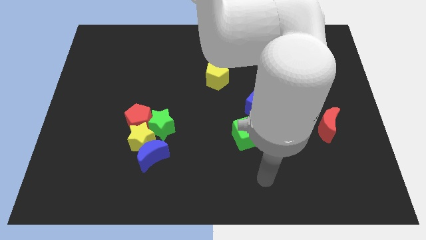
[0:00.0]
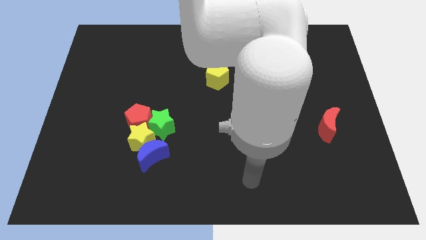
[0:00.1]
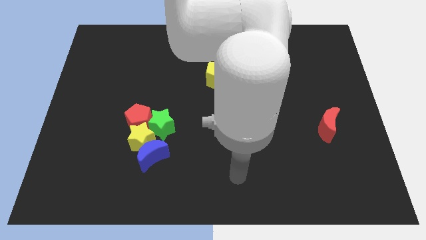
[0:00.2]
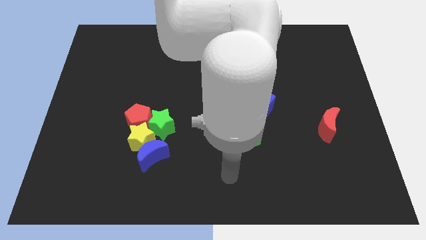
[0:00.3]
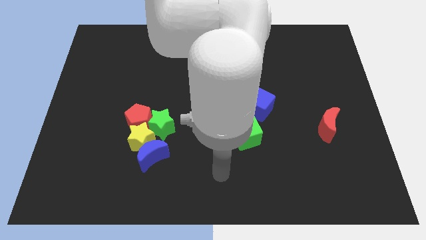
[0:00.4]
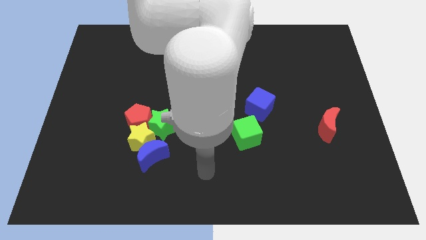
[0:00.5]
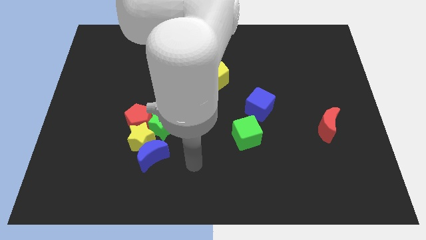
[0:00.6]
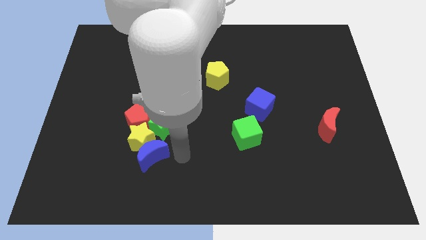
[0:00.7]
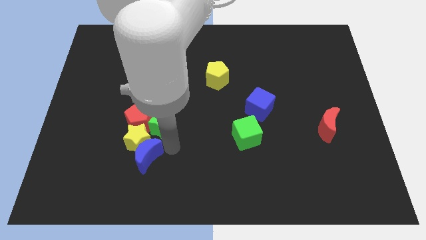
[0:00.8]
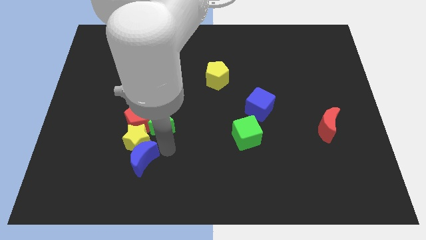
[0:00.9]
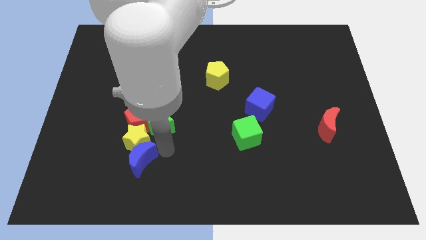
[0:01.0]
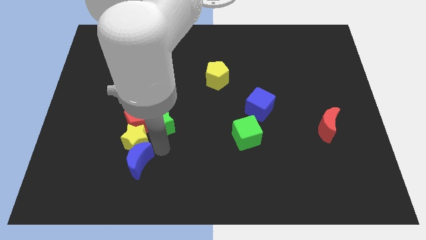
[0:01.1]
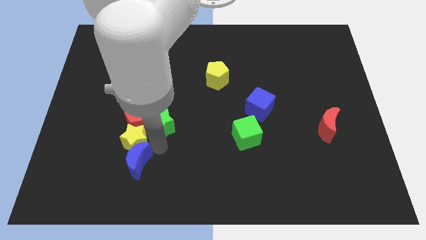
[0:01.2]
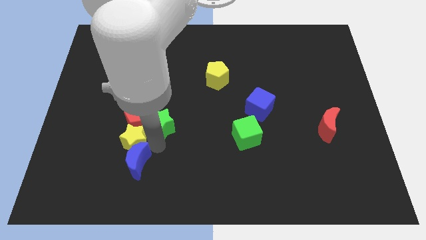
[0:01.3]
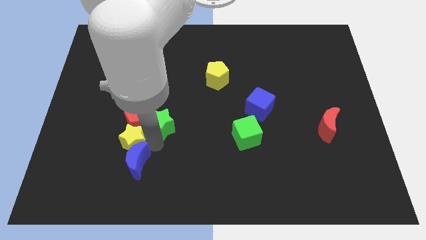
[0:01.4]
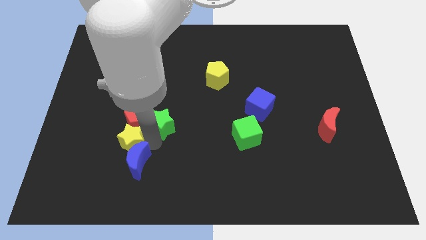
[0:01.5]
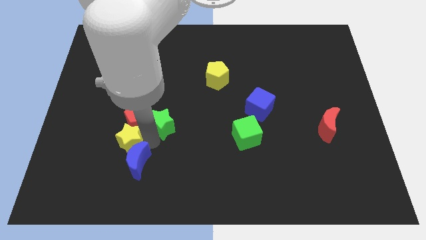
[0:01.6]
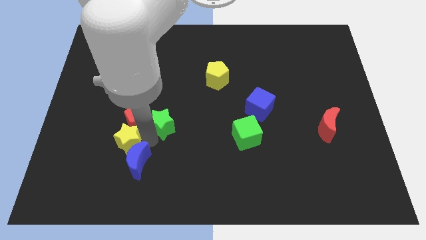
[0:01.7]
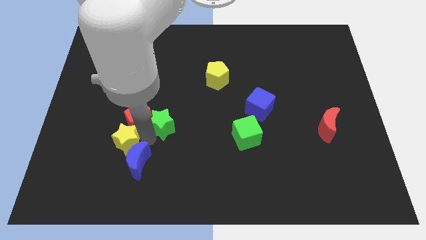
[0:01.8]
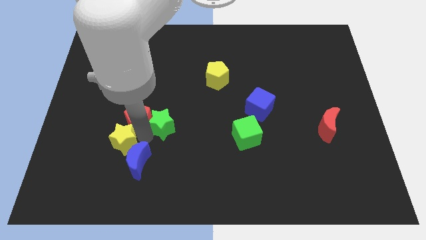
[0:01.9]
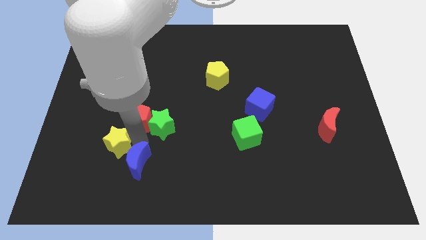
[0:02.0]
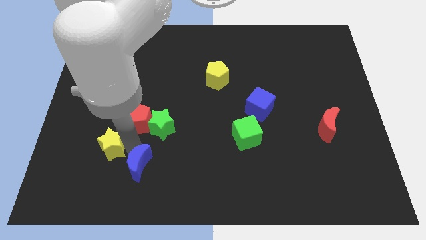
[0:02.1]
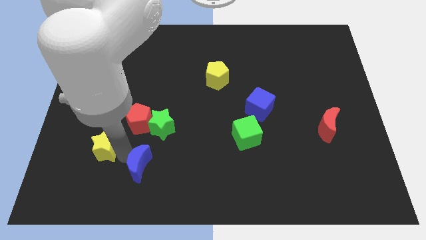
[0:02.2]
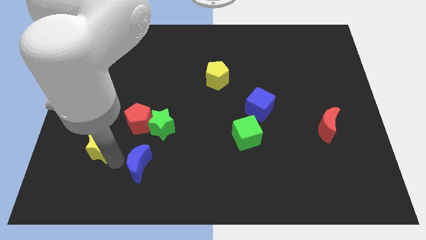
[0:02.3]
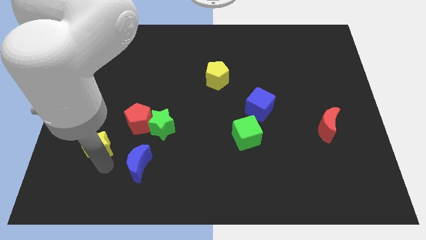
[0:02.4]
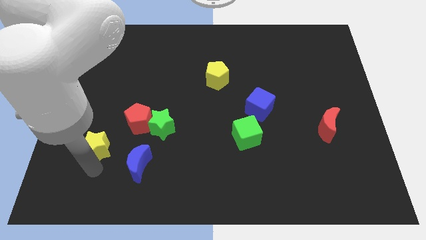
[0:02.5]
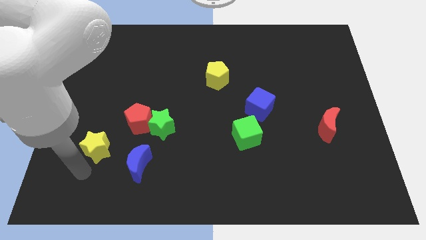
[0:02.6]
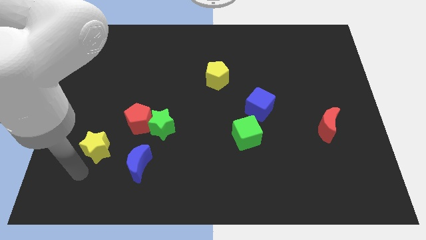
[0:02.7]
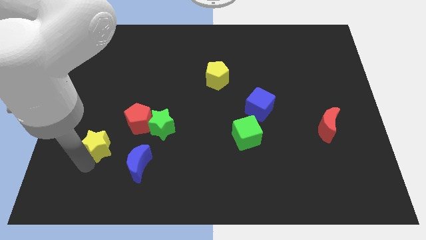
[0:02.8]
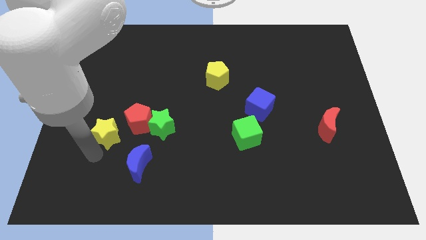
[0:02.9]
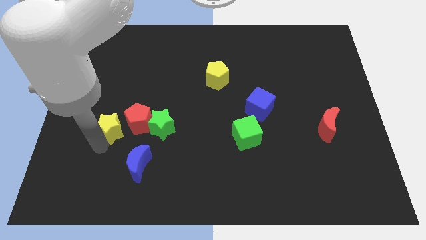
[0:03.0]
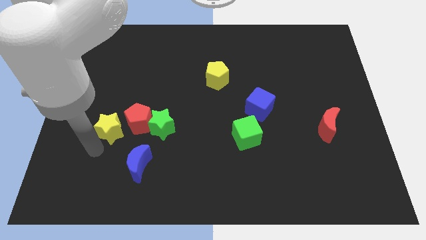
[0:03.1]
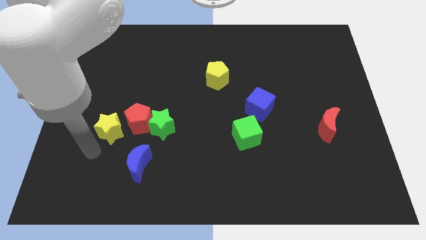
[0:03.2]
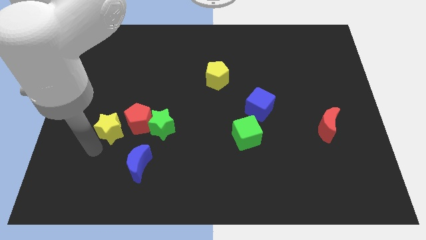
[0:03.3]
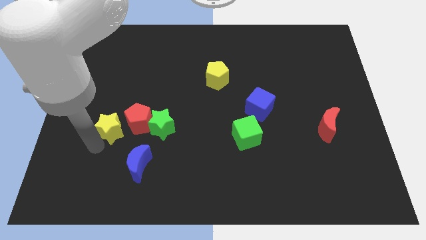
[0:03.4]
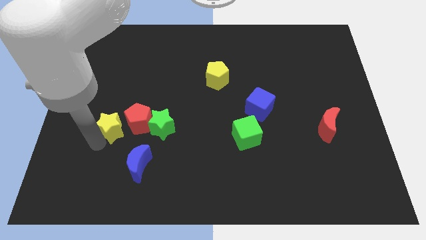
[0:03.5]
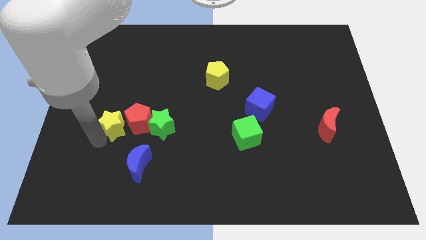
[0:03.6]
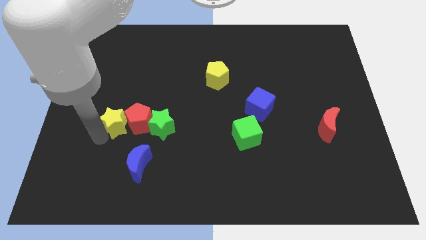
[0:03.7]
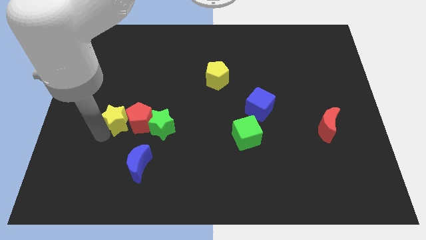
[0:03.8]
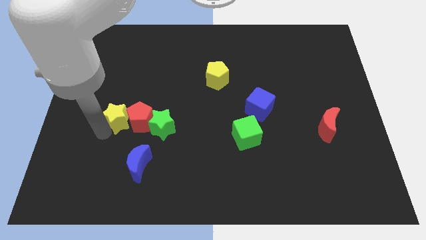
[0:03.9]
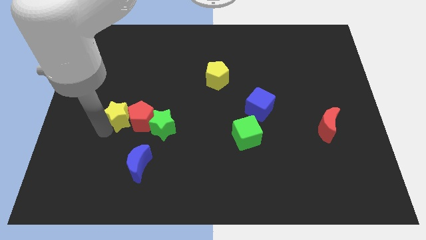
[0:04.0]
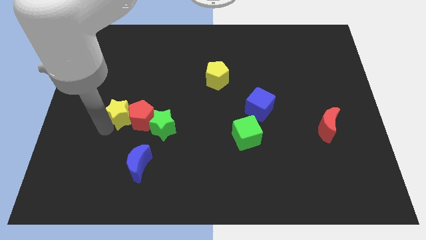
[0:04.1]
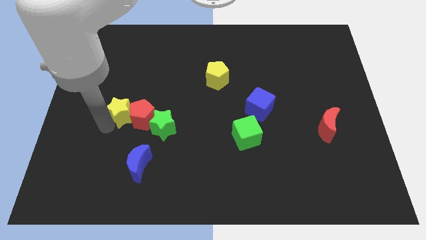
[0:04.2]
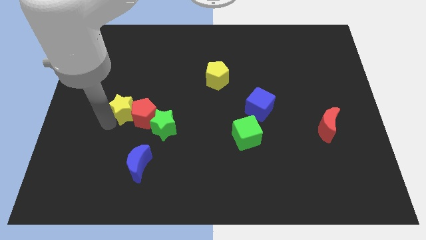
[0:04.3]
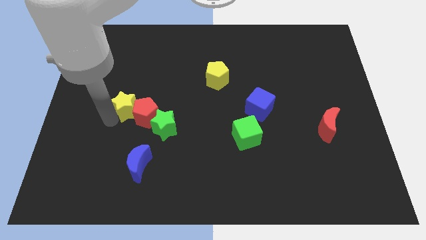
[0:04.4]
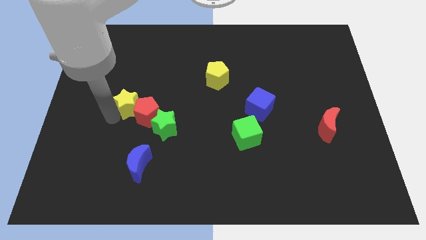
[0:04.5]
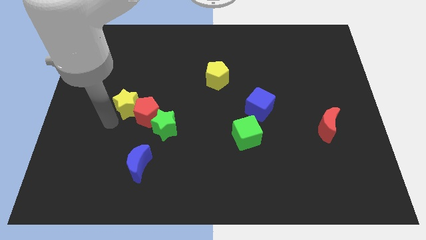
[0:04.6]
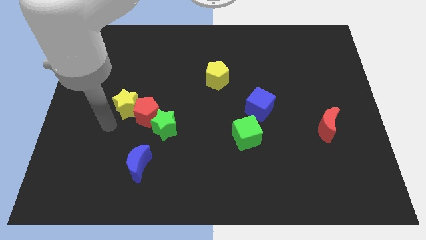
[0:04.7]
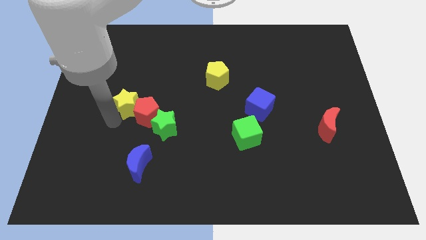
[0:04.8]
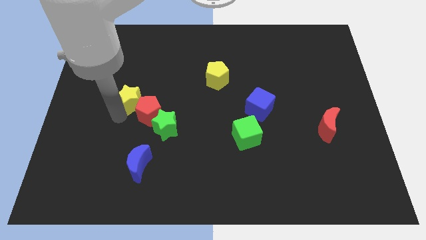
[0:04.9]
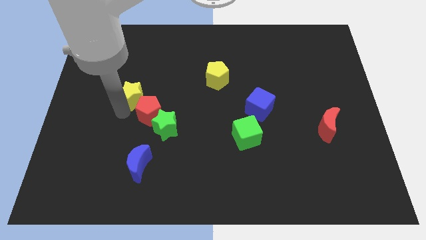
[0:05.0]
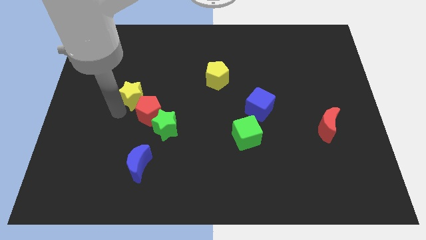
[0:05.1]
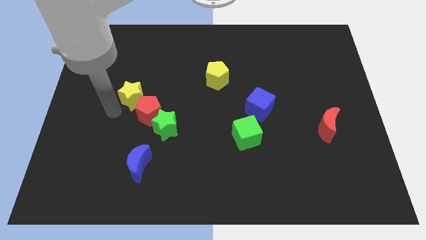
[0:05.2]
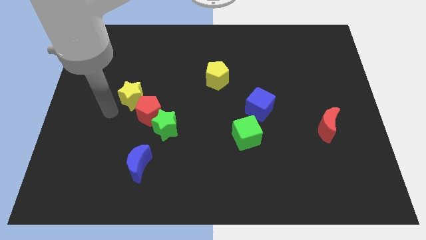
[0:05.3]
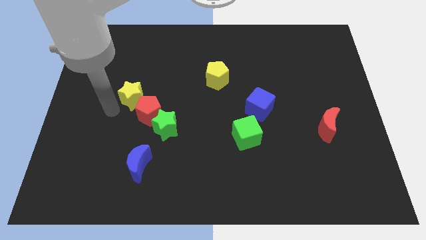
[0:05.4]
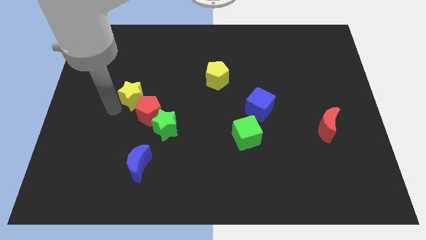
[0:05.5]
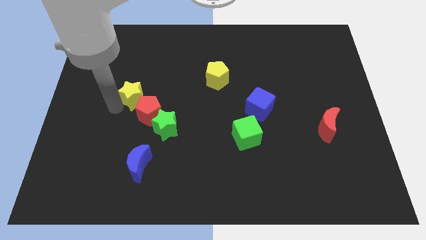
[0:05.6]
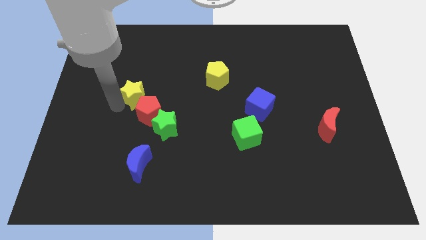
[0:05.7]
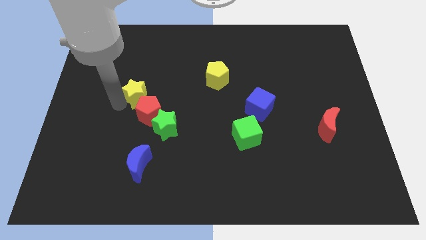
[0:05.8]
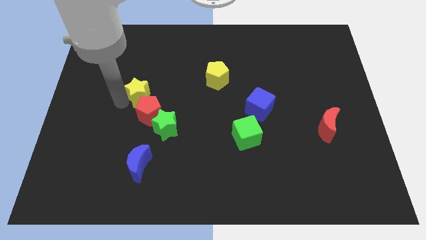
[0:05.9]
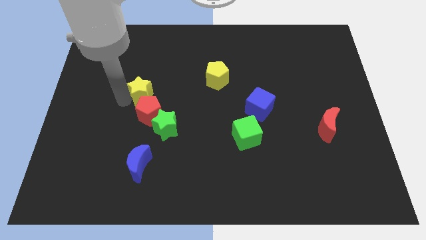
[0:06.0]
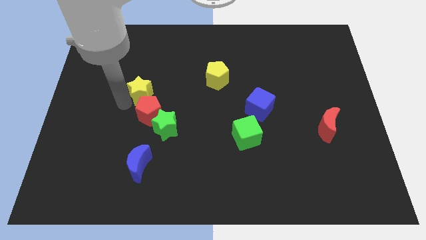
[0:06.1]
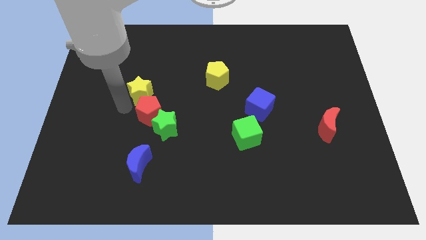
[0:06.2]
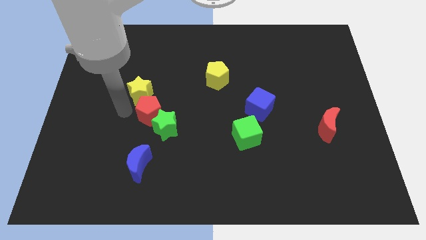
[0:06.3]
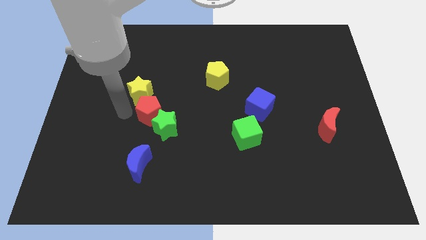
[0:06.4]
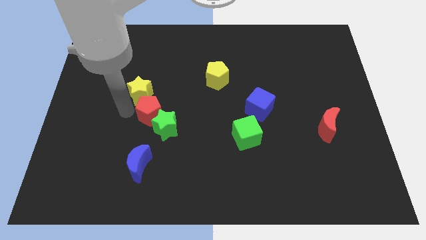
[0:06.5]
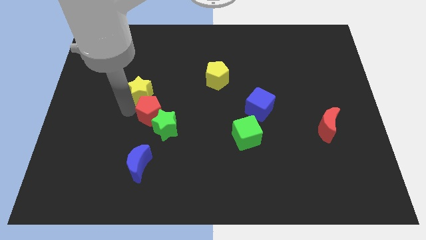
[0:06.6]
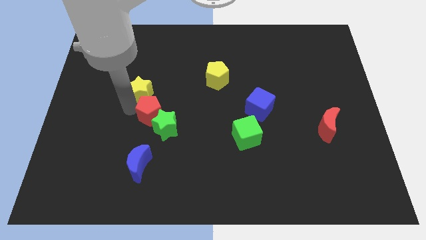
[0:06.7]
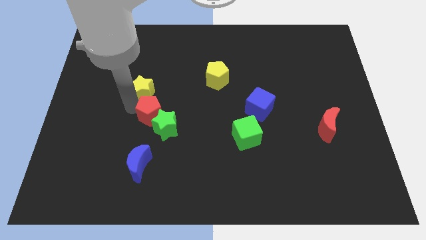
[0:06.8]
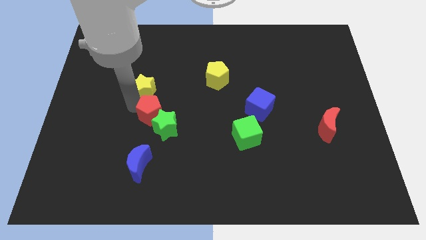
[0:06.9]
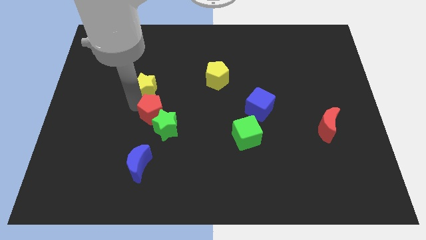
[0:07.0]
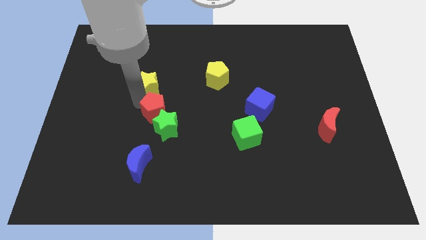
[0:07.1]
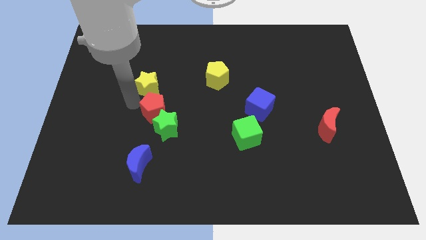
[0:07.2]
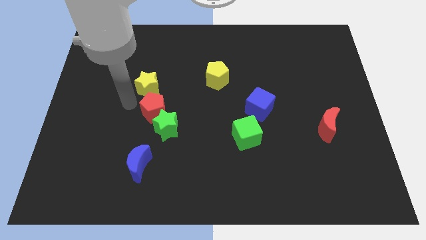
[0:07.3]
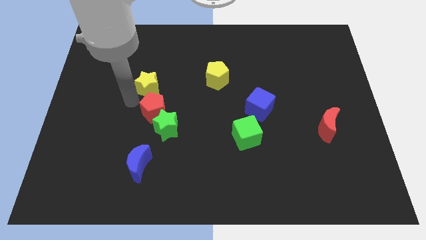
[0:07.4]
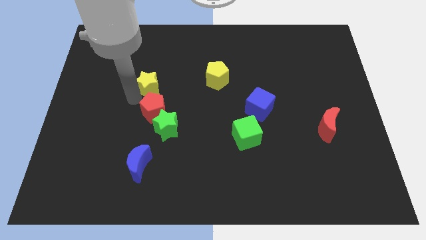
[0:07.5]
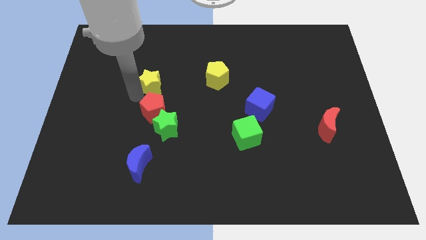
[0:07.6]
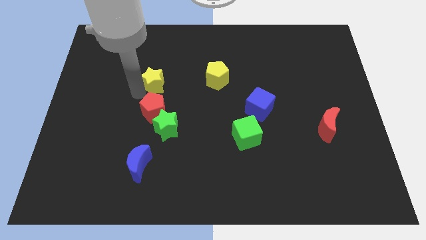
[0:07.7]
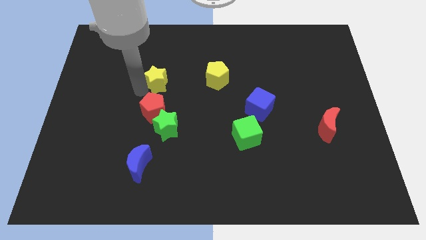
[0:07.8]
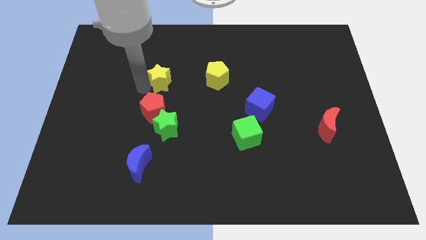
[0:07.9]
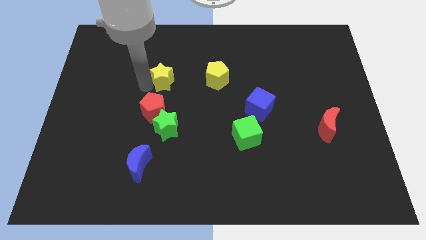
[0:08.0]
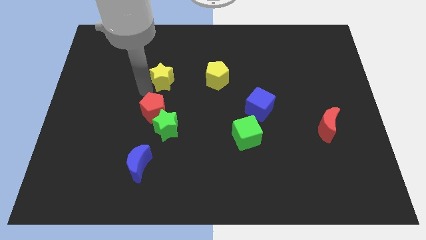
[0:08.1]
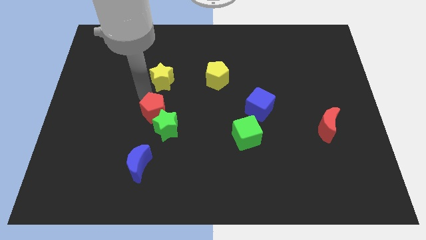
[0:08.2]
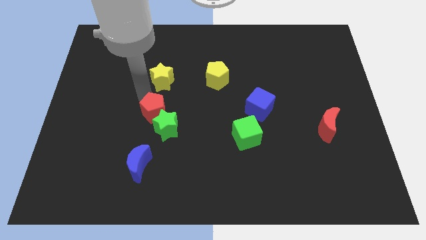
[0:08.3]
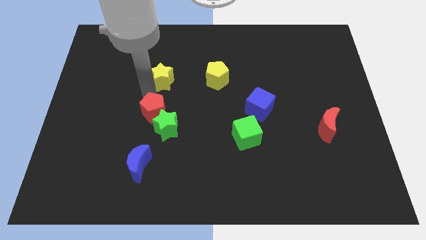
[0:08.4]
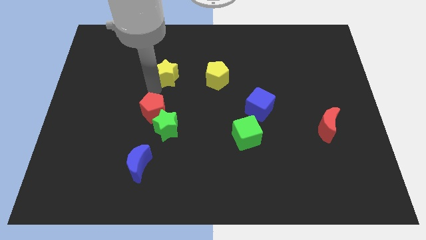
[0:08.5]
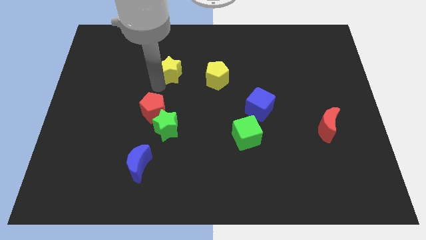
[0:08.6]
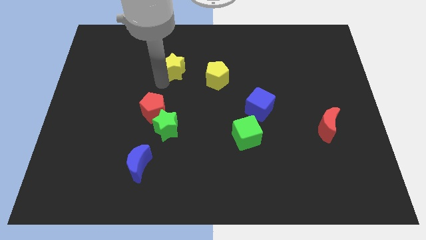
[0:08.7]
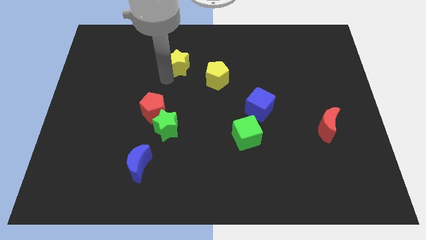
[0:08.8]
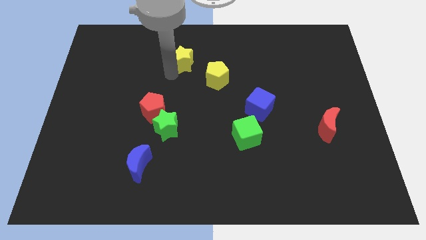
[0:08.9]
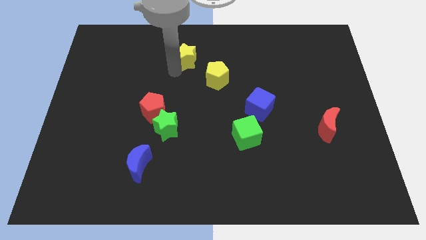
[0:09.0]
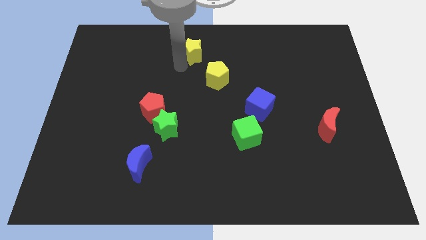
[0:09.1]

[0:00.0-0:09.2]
move the yellow star to the towards your base
